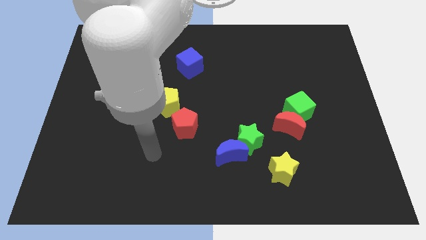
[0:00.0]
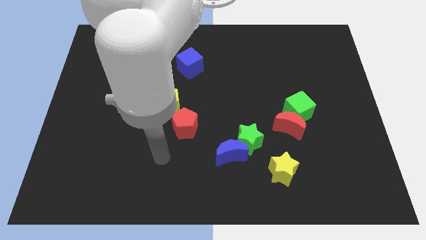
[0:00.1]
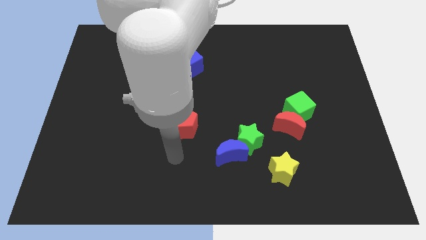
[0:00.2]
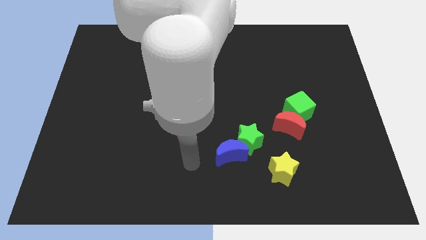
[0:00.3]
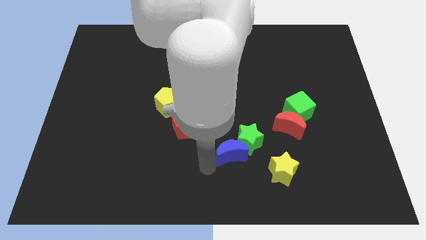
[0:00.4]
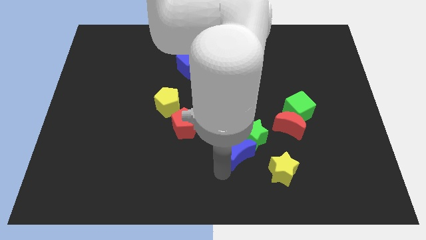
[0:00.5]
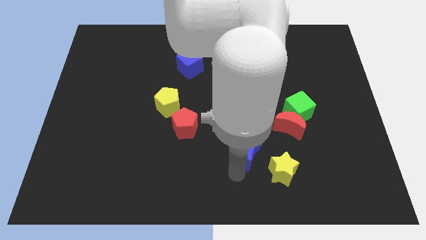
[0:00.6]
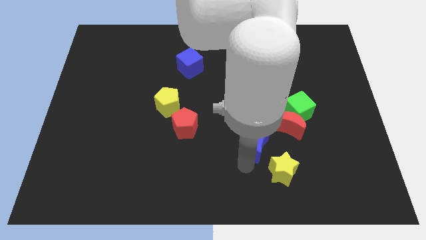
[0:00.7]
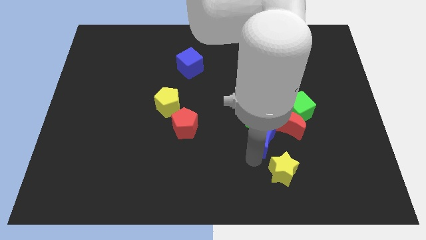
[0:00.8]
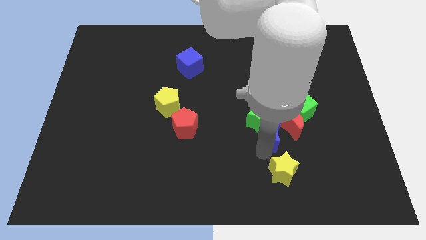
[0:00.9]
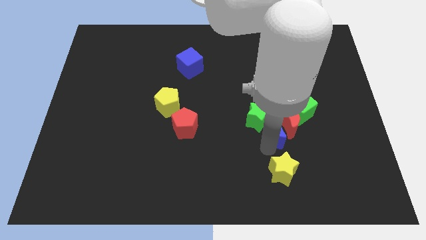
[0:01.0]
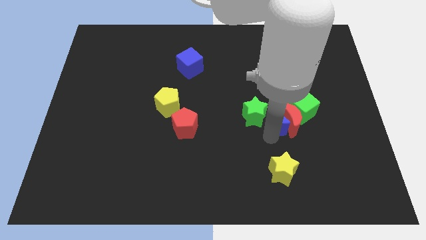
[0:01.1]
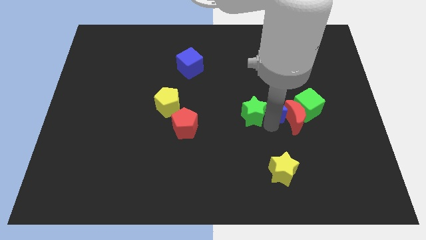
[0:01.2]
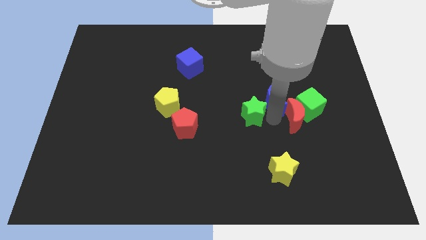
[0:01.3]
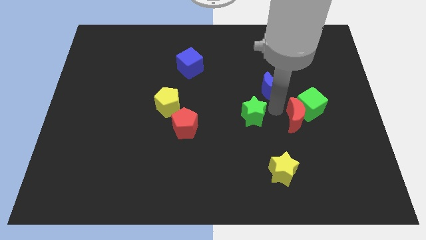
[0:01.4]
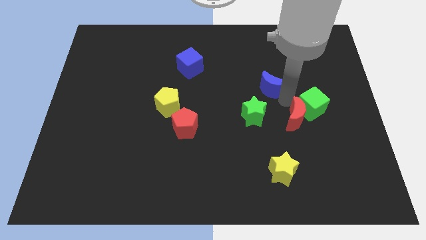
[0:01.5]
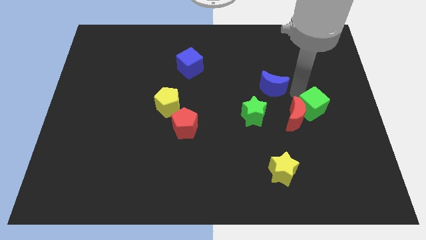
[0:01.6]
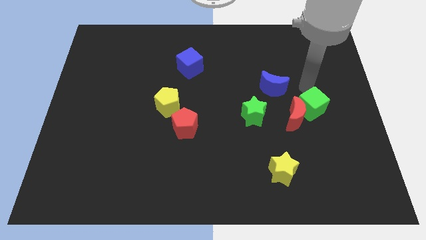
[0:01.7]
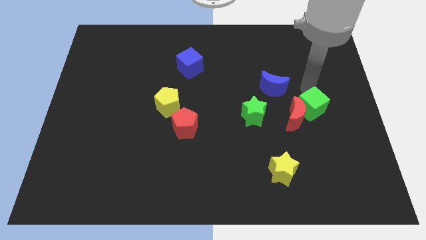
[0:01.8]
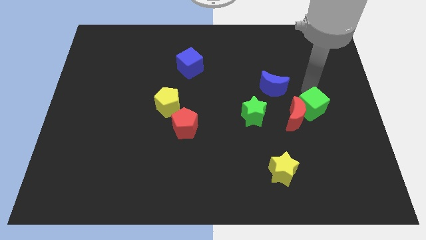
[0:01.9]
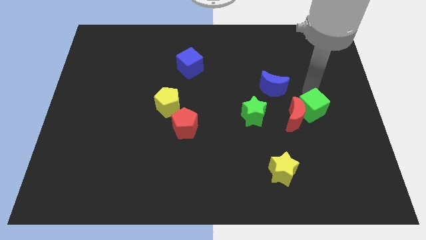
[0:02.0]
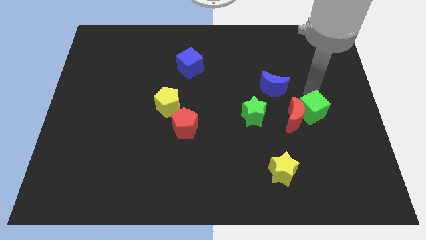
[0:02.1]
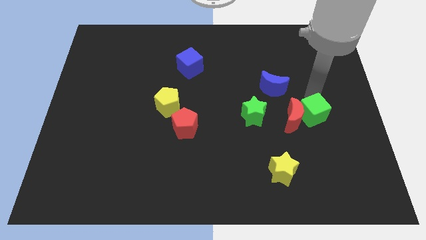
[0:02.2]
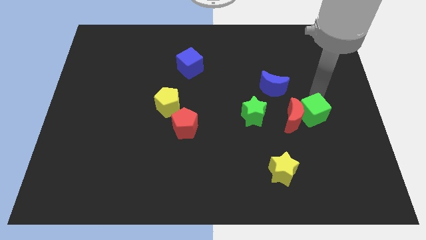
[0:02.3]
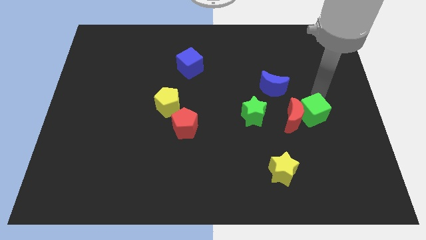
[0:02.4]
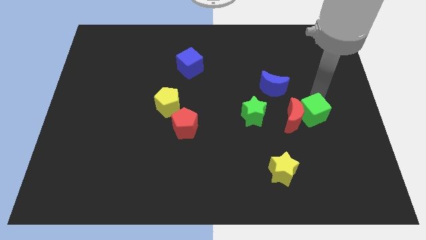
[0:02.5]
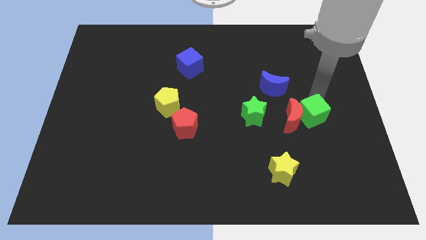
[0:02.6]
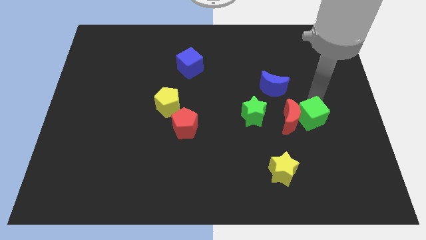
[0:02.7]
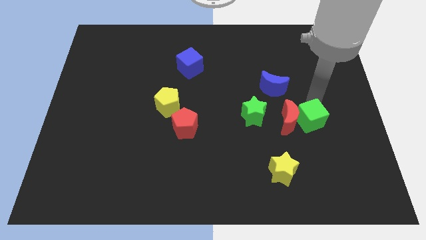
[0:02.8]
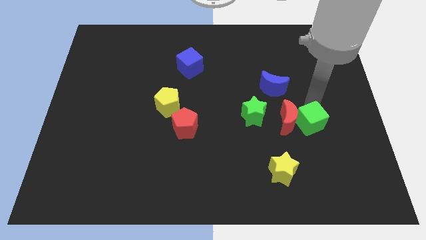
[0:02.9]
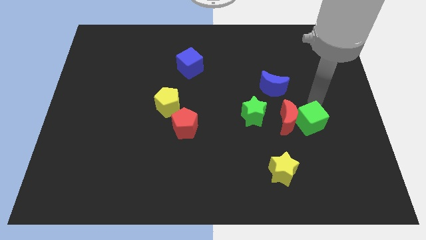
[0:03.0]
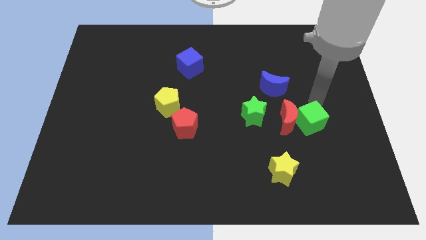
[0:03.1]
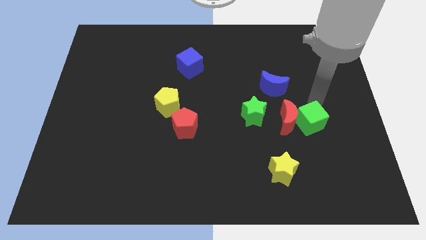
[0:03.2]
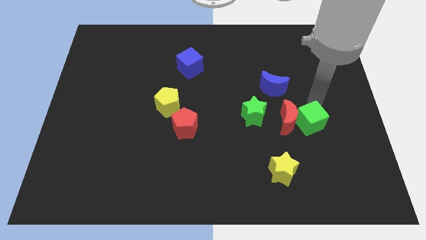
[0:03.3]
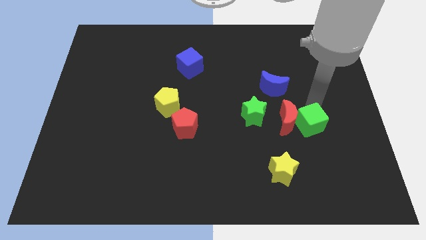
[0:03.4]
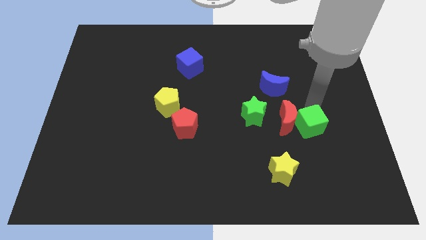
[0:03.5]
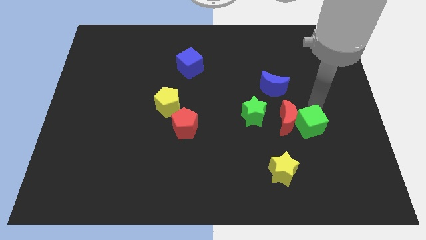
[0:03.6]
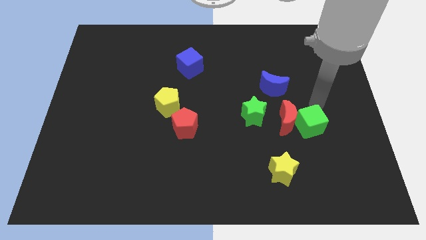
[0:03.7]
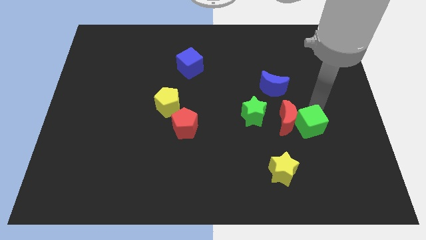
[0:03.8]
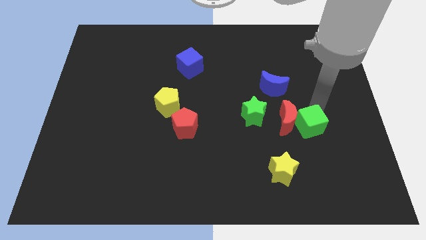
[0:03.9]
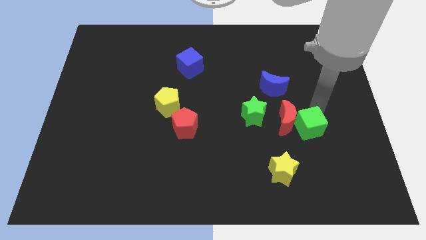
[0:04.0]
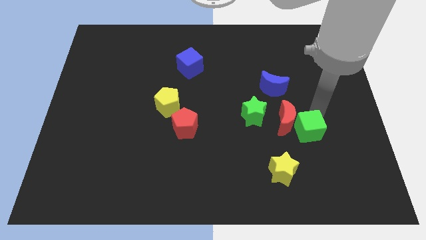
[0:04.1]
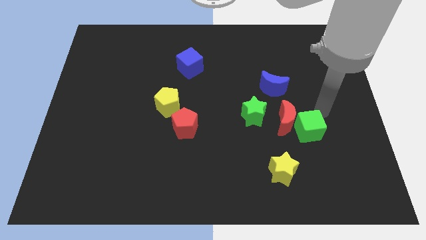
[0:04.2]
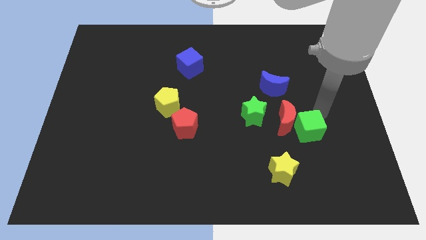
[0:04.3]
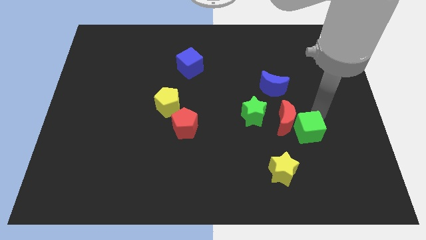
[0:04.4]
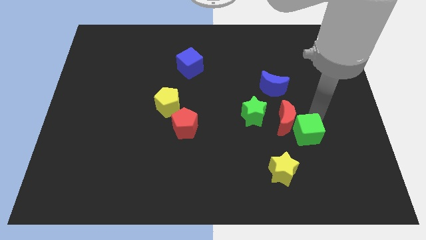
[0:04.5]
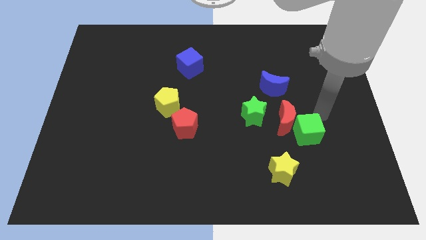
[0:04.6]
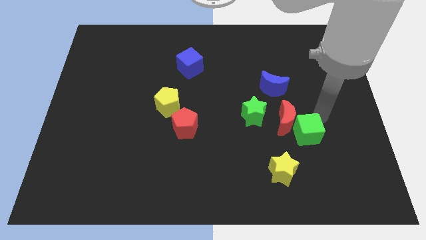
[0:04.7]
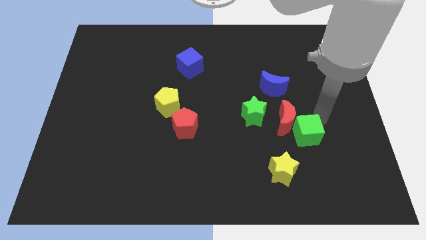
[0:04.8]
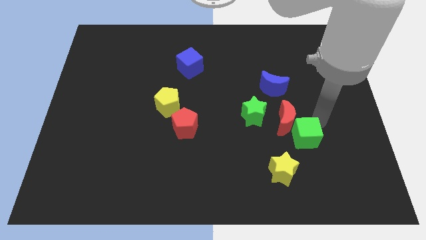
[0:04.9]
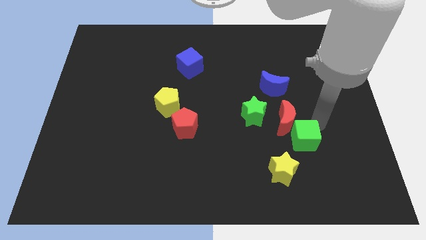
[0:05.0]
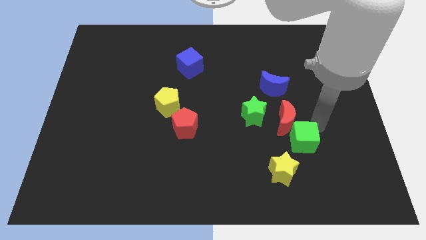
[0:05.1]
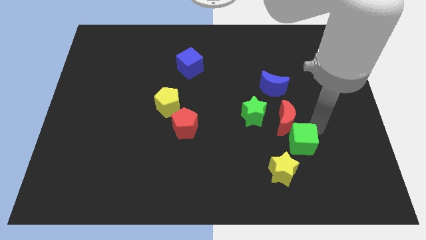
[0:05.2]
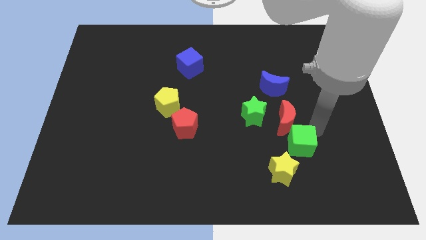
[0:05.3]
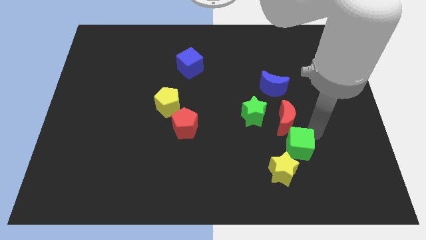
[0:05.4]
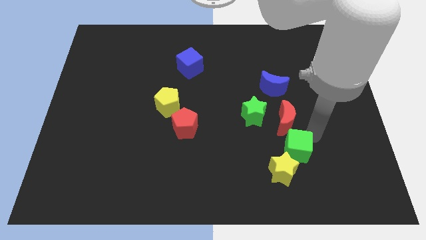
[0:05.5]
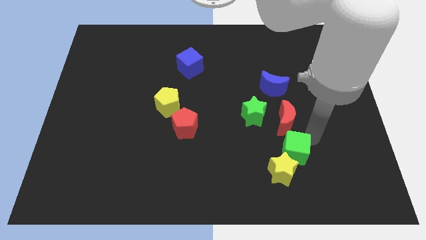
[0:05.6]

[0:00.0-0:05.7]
move the green cube close to the yellow star
